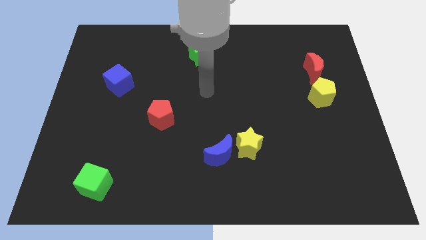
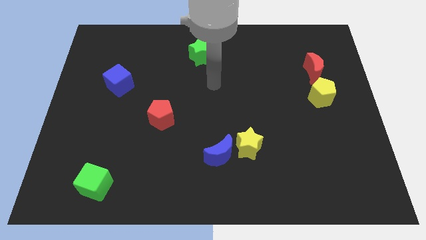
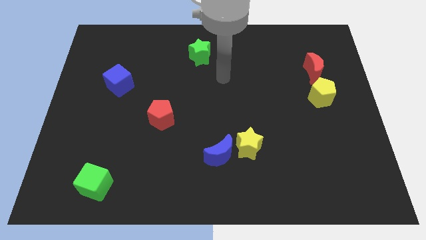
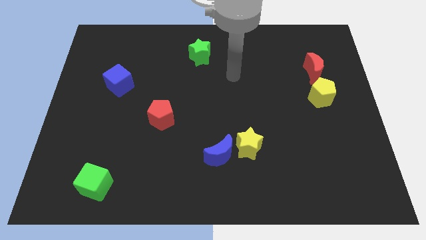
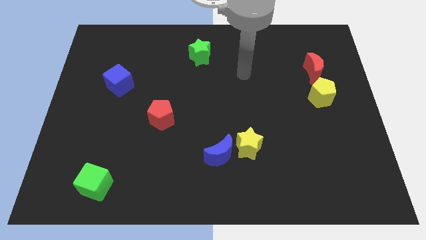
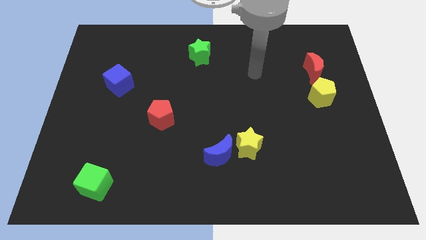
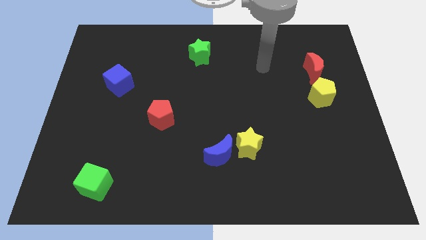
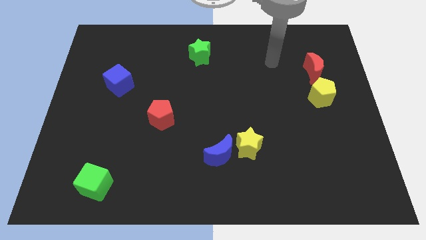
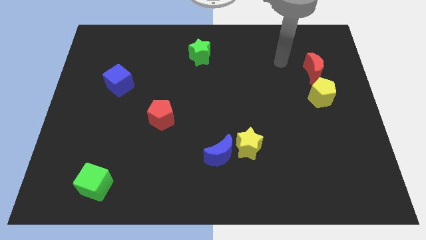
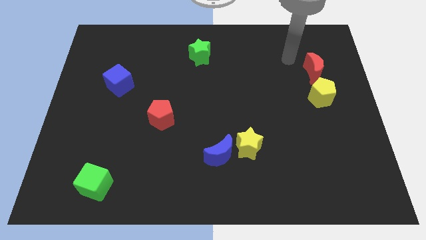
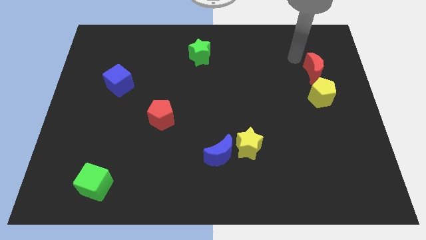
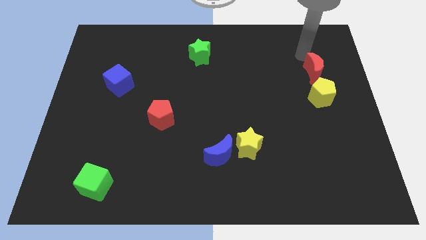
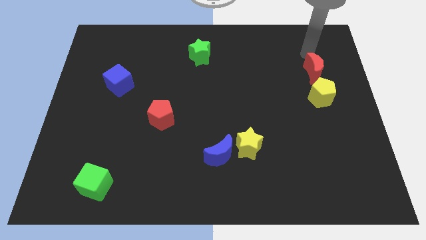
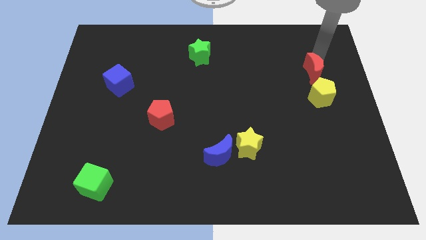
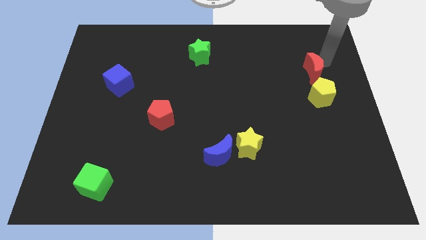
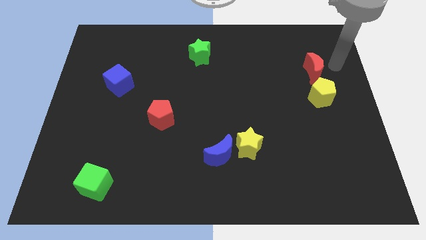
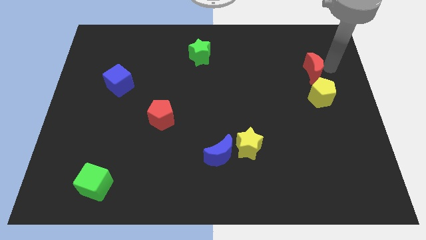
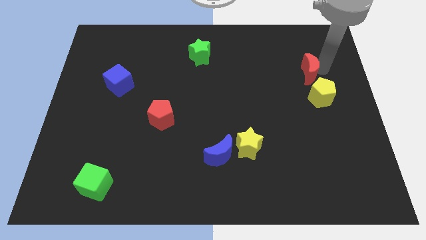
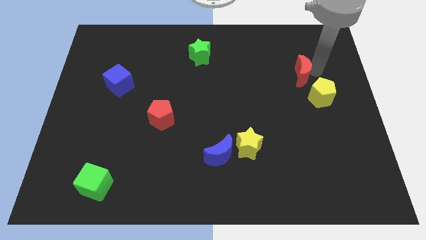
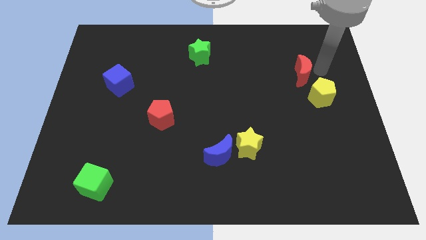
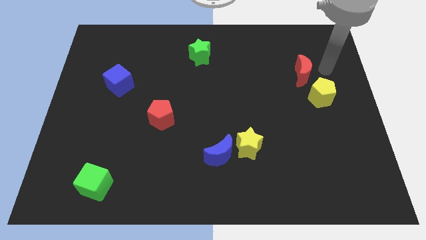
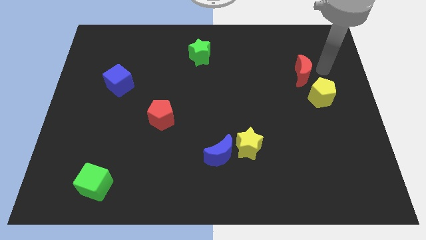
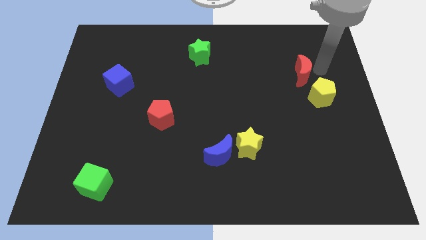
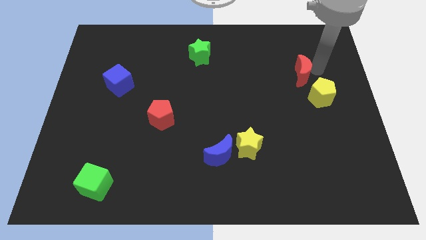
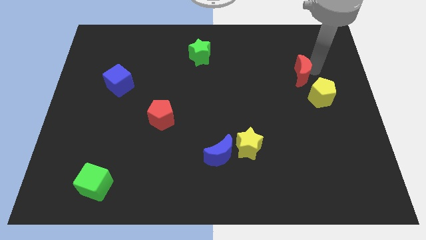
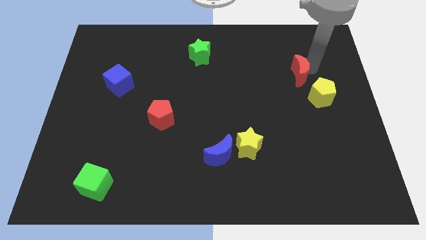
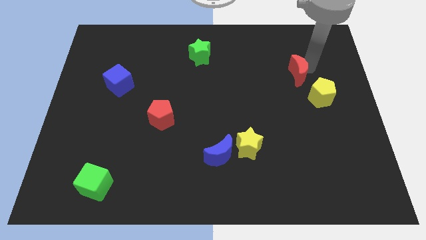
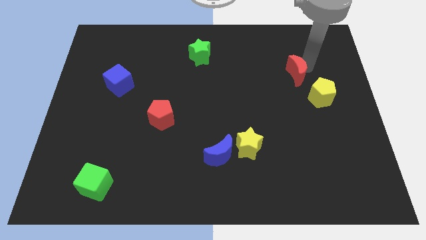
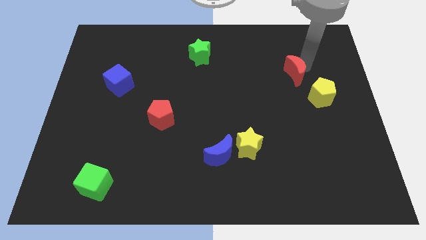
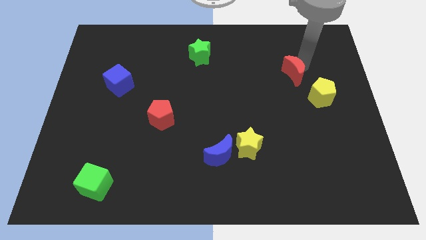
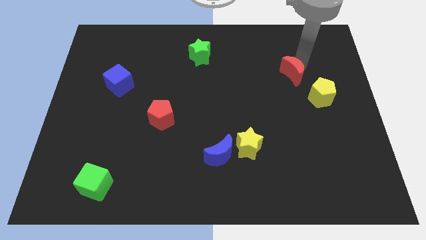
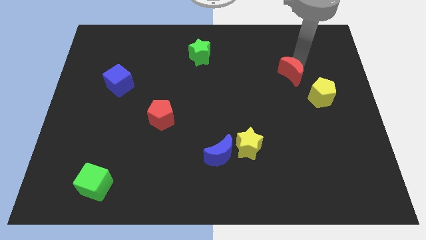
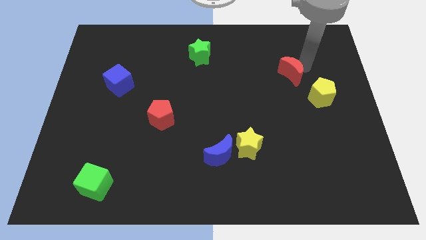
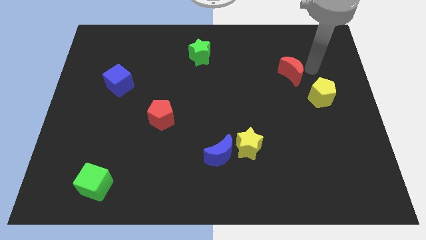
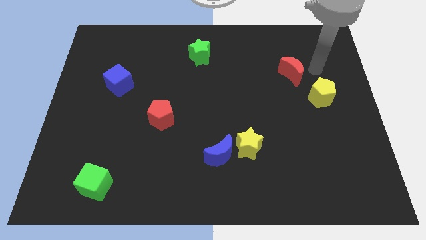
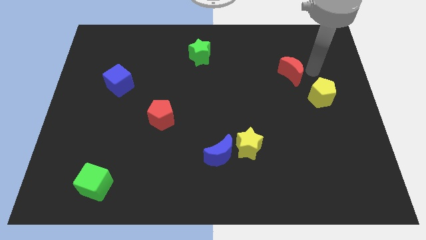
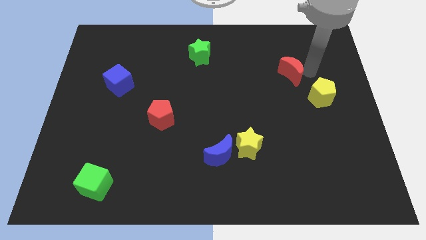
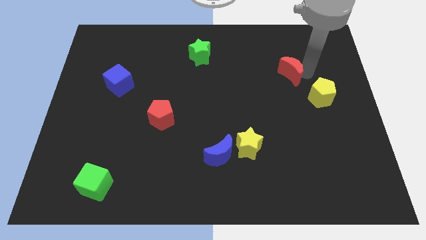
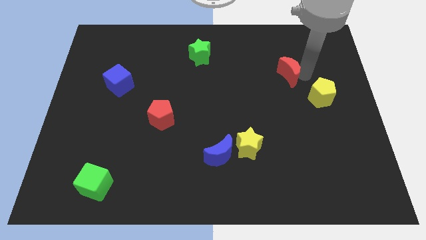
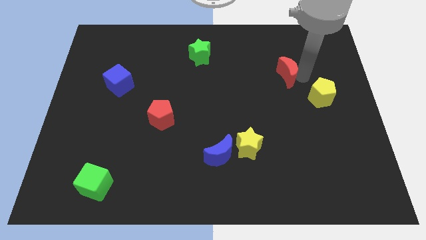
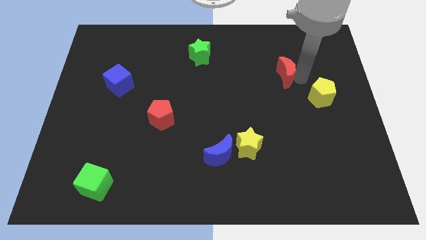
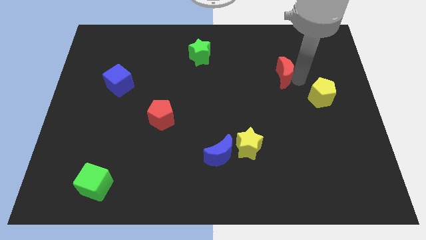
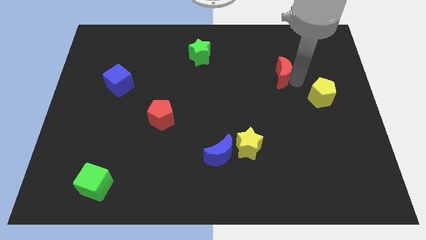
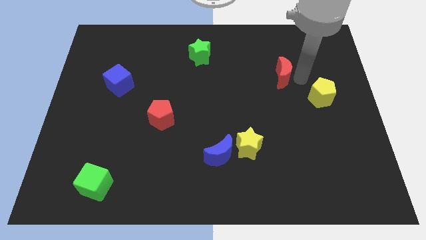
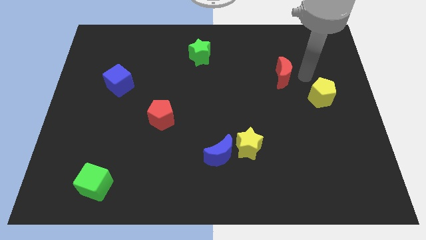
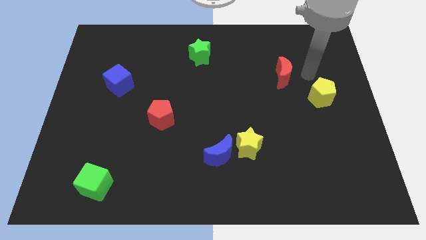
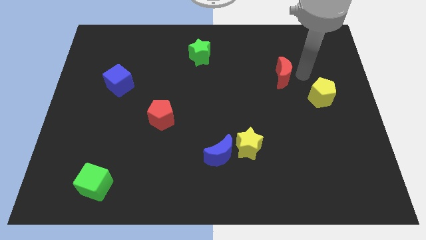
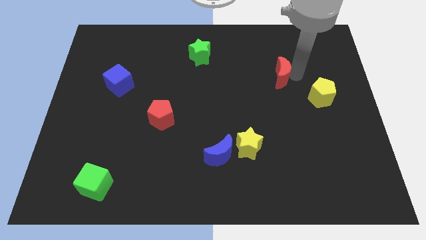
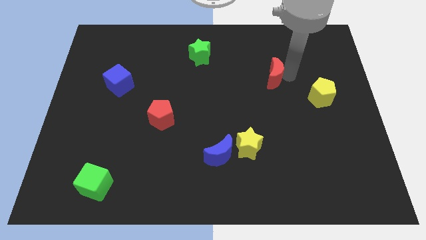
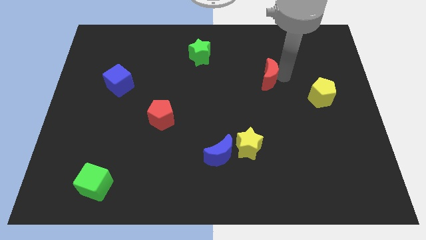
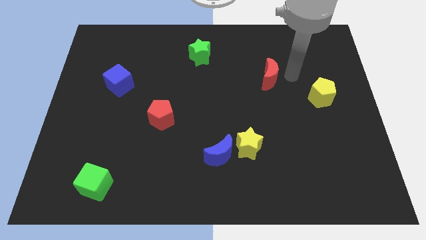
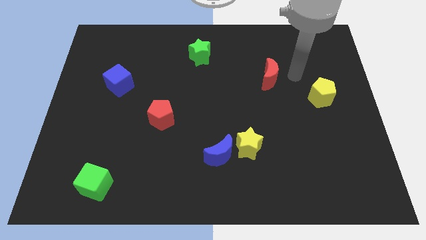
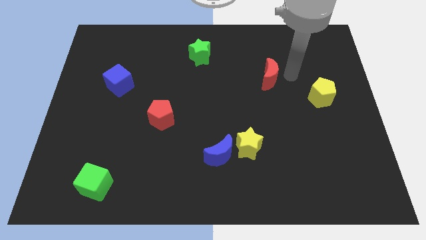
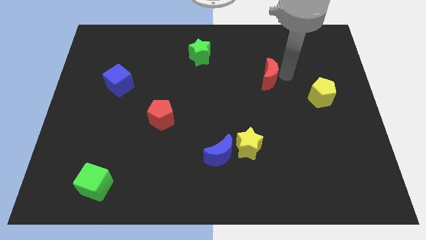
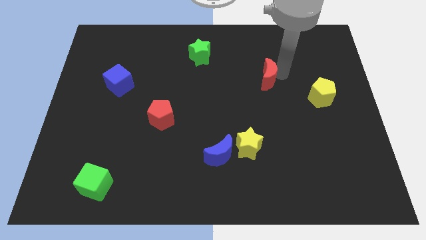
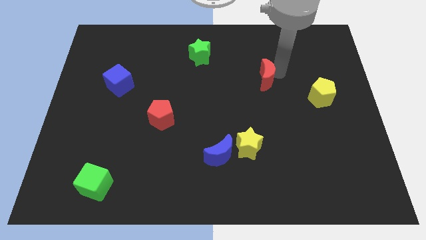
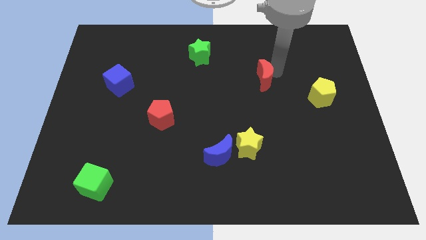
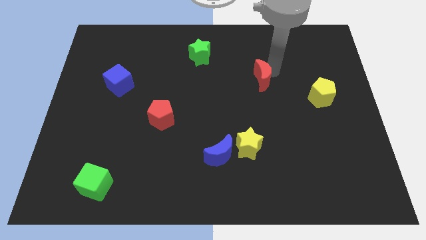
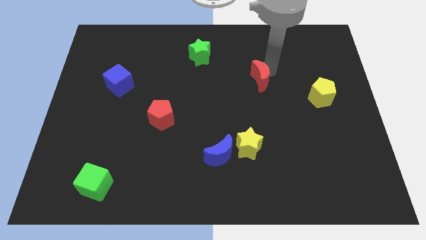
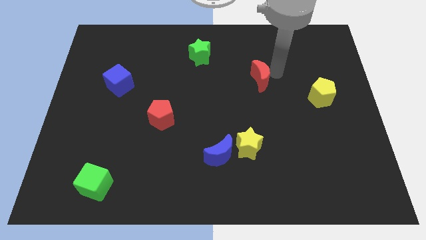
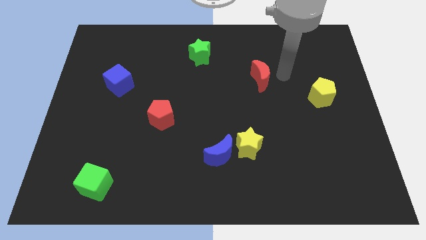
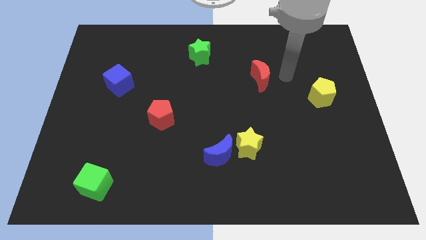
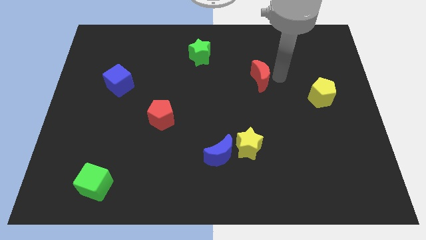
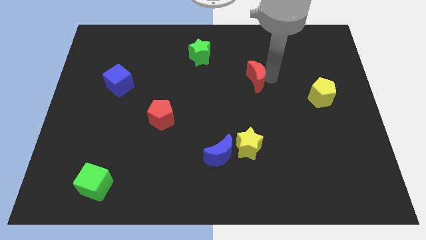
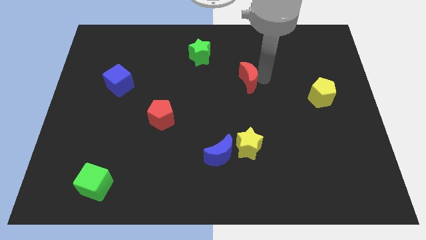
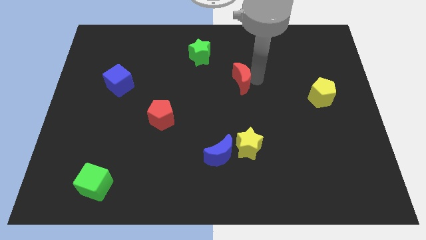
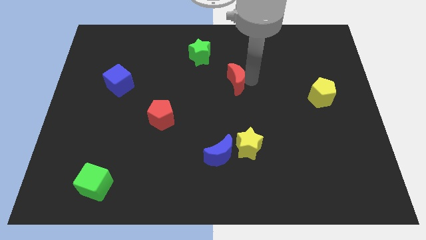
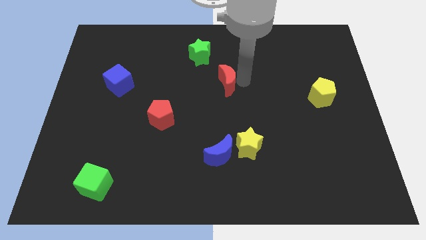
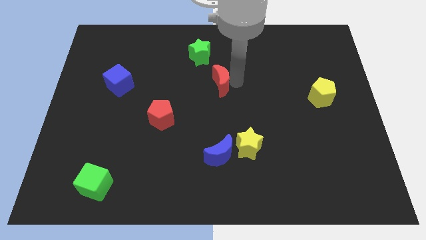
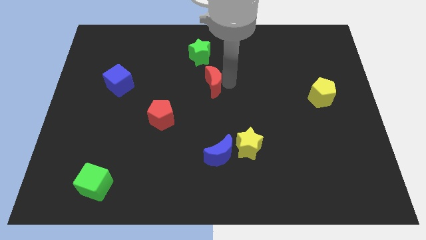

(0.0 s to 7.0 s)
slide the red moon below the green star
